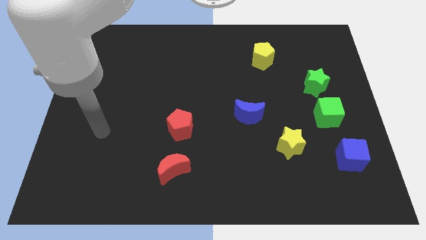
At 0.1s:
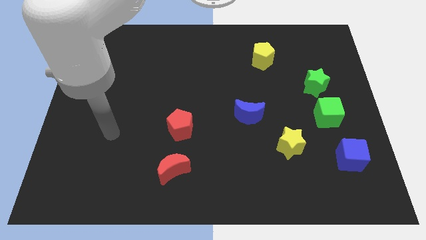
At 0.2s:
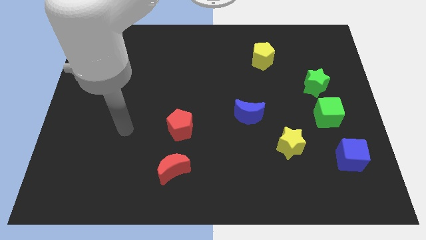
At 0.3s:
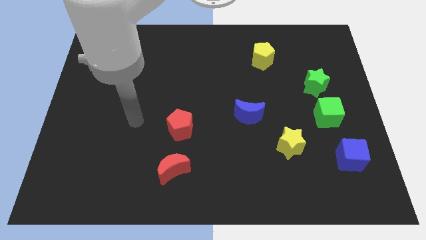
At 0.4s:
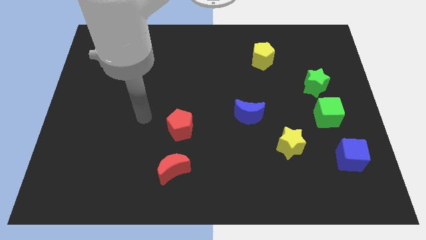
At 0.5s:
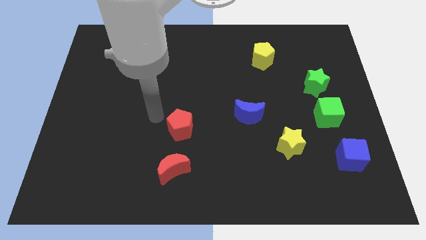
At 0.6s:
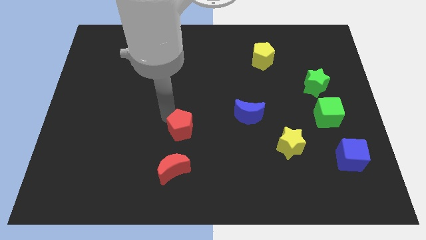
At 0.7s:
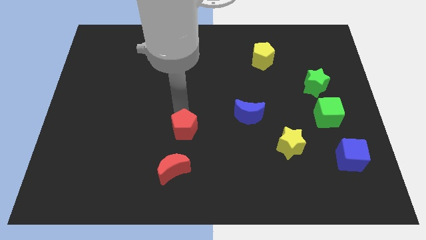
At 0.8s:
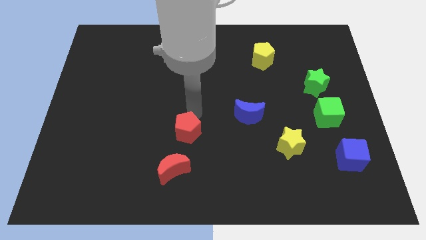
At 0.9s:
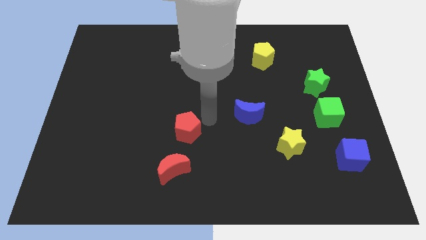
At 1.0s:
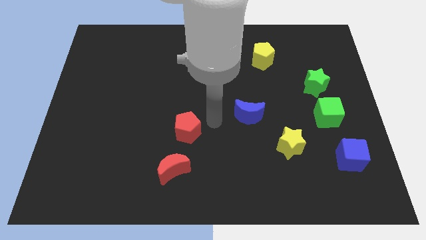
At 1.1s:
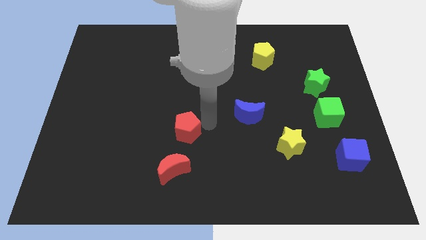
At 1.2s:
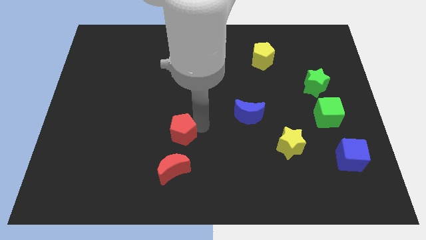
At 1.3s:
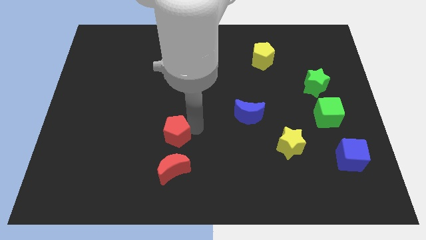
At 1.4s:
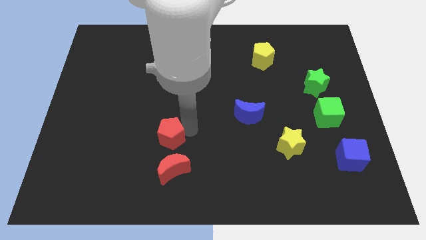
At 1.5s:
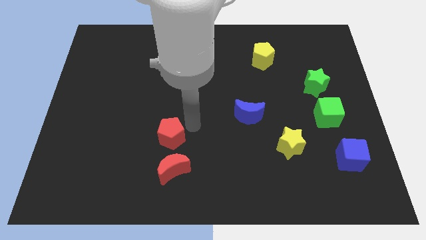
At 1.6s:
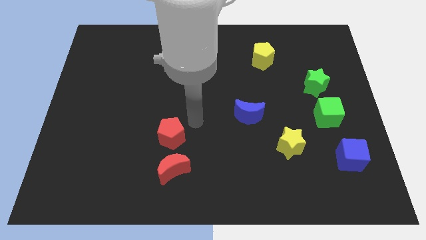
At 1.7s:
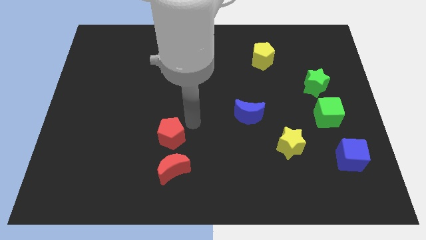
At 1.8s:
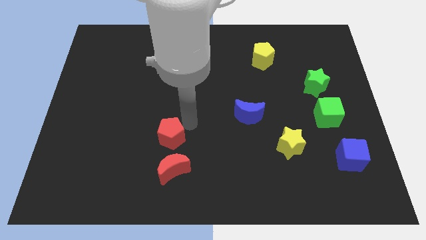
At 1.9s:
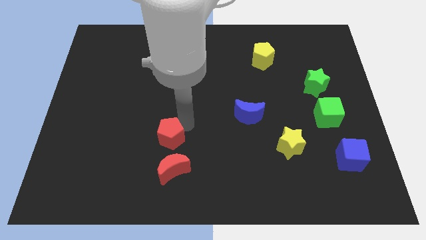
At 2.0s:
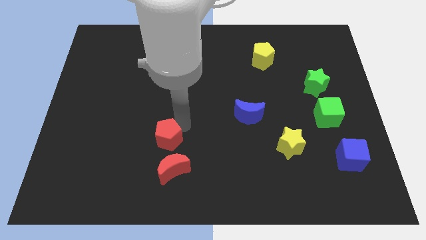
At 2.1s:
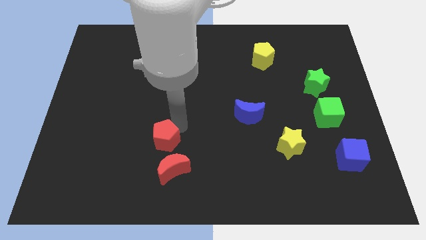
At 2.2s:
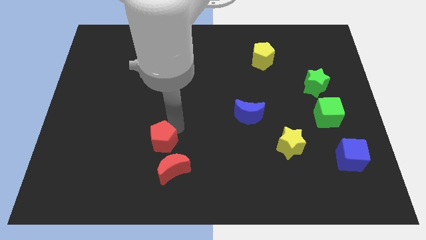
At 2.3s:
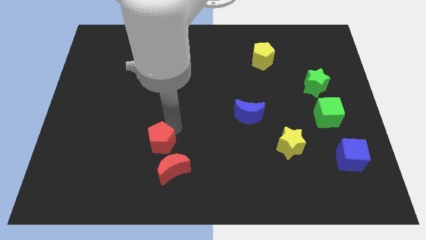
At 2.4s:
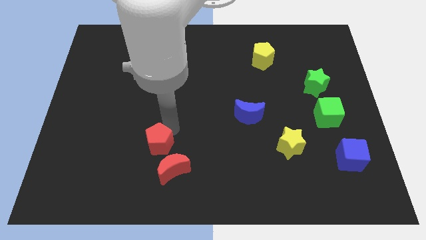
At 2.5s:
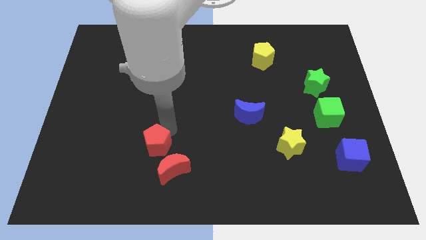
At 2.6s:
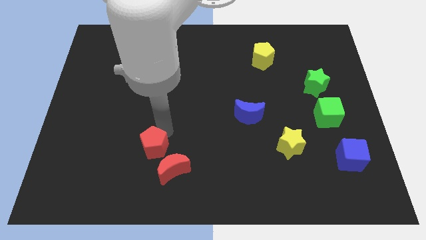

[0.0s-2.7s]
slightly slide the red pentagon downwards and to the left diagonally

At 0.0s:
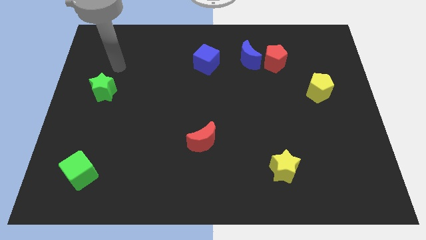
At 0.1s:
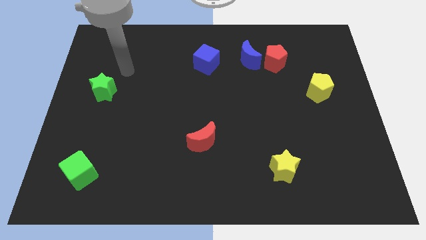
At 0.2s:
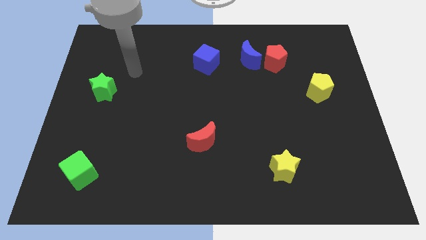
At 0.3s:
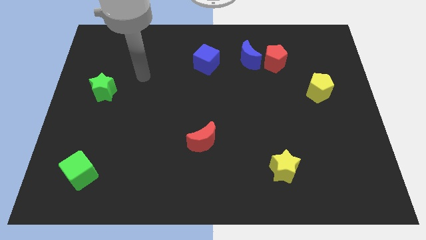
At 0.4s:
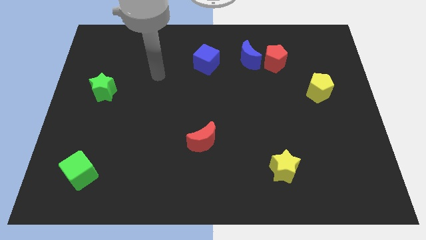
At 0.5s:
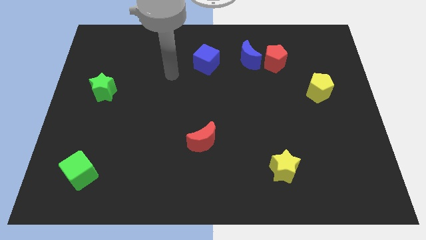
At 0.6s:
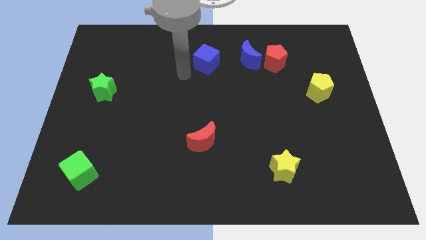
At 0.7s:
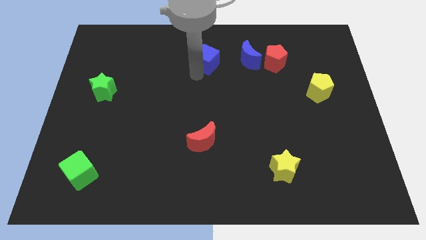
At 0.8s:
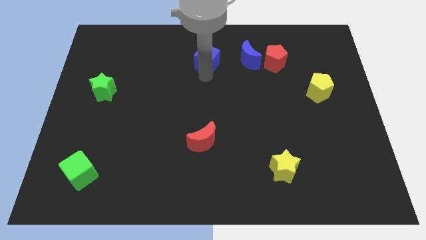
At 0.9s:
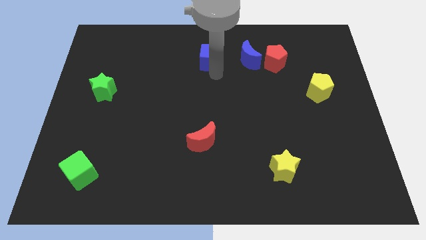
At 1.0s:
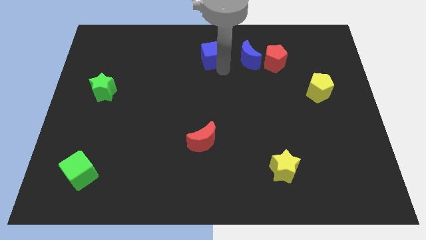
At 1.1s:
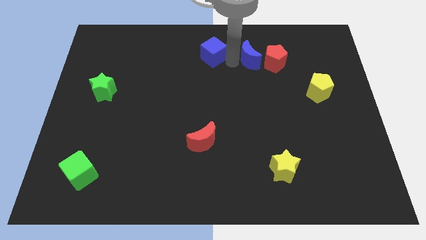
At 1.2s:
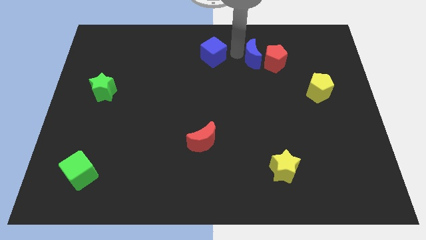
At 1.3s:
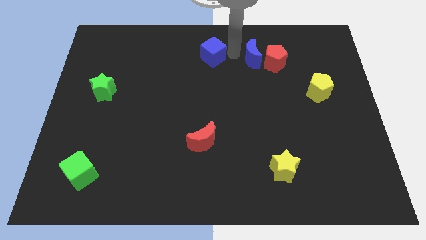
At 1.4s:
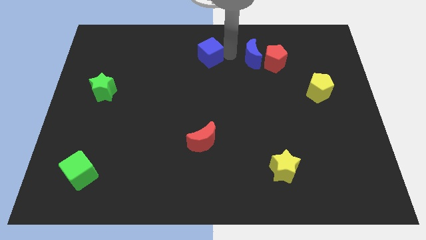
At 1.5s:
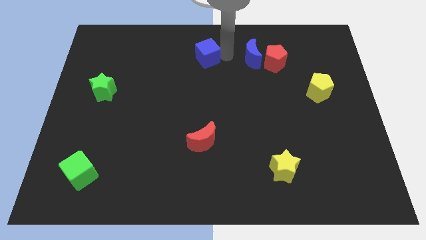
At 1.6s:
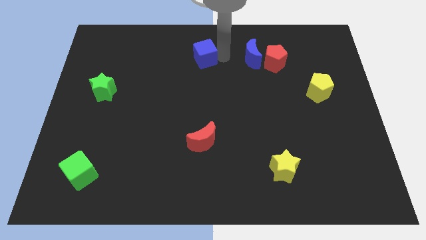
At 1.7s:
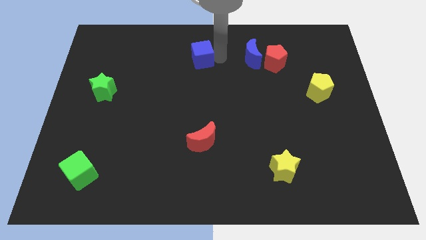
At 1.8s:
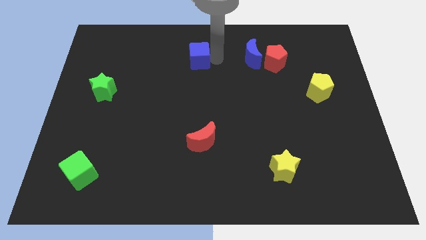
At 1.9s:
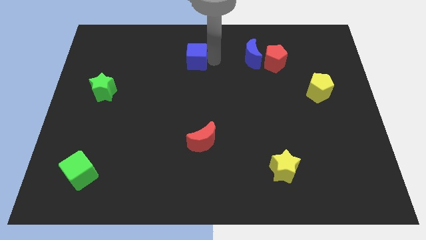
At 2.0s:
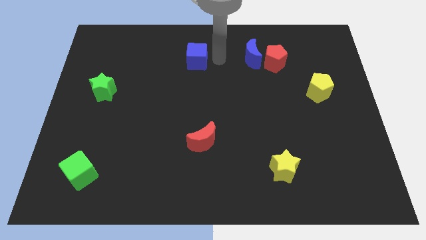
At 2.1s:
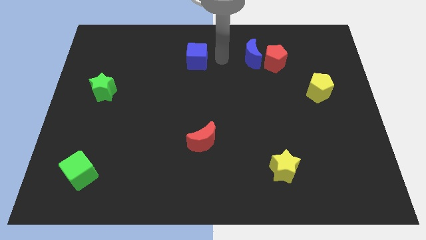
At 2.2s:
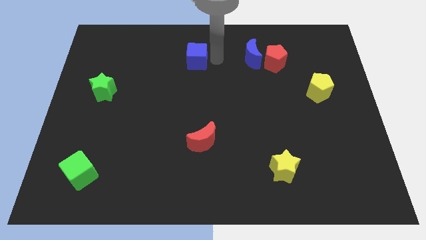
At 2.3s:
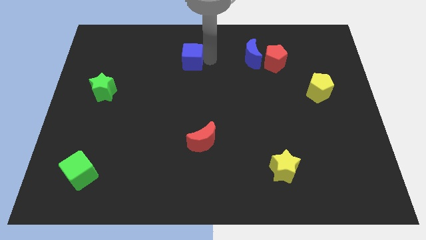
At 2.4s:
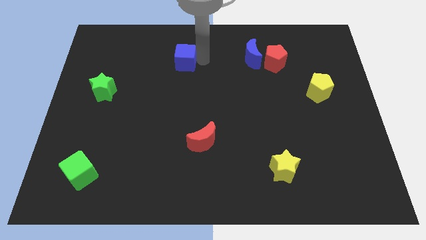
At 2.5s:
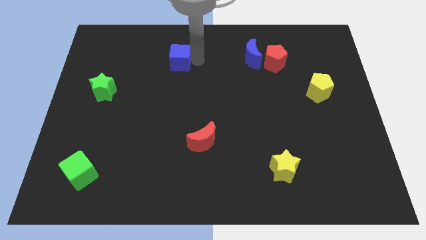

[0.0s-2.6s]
push the blue cube to the left a bit

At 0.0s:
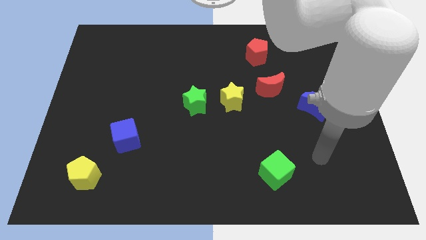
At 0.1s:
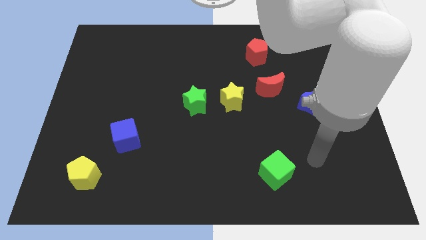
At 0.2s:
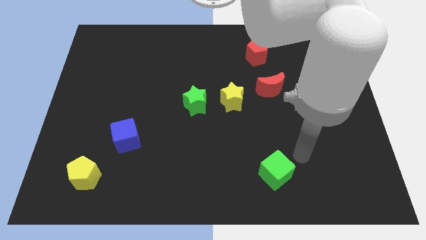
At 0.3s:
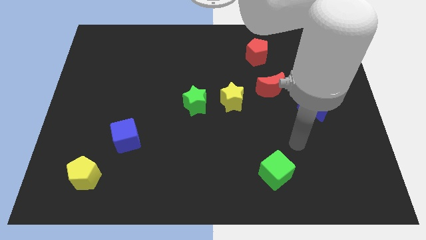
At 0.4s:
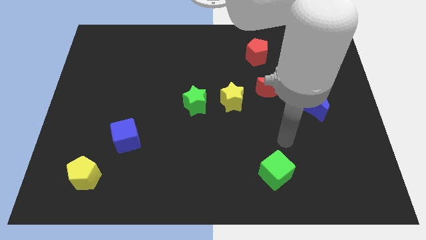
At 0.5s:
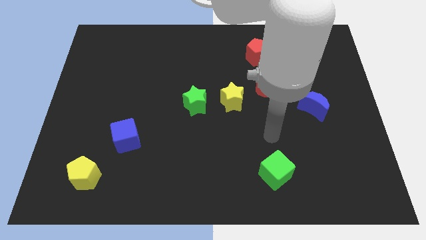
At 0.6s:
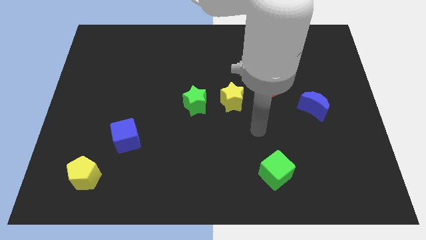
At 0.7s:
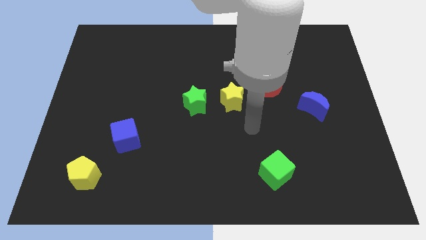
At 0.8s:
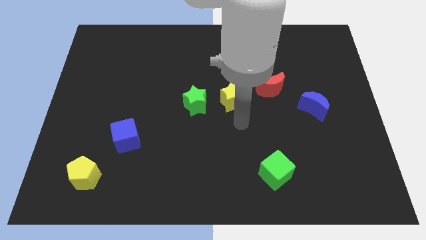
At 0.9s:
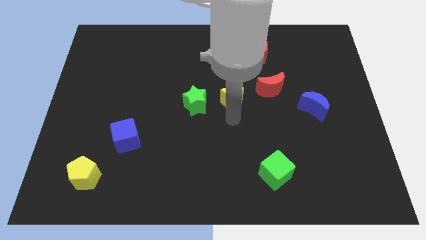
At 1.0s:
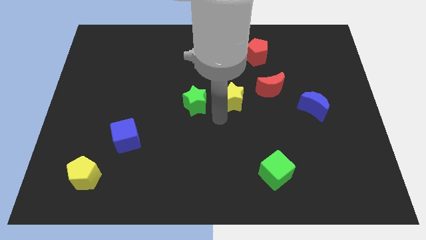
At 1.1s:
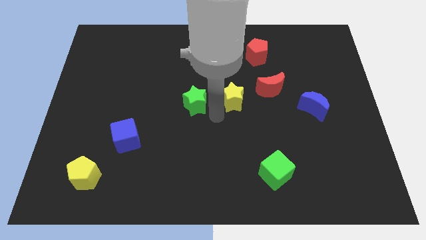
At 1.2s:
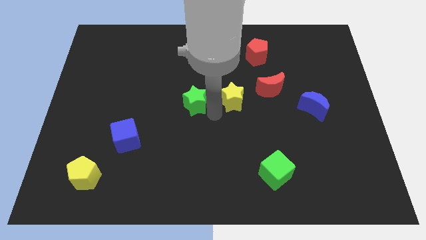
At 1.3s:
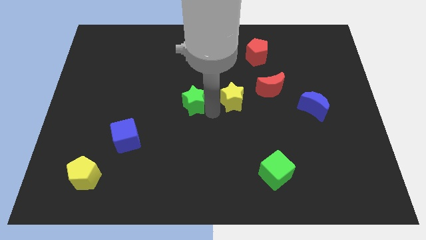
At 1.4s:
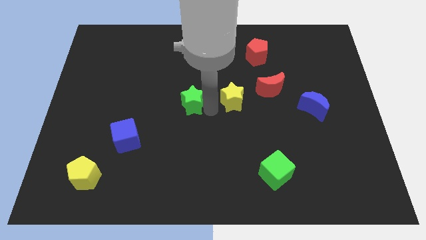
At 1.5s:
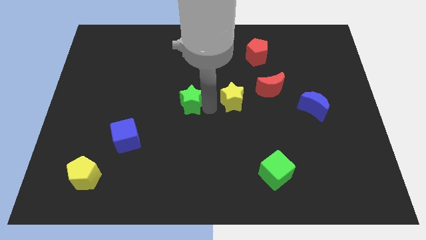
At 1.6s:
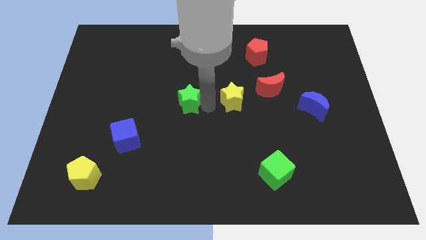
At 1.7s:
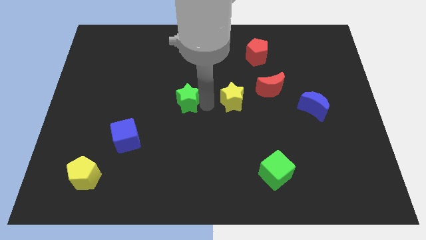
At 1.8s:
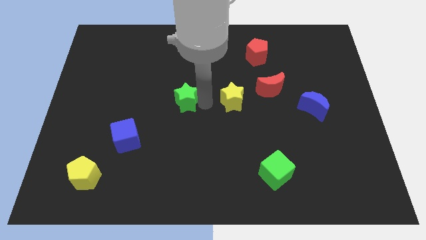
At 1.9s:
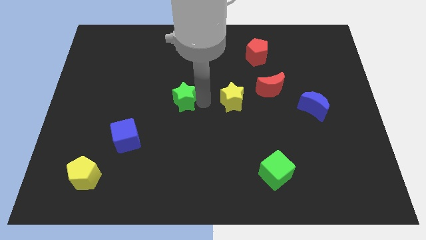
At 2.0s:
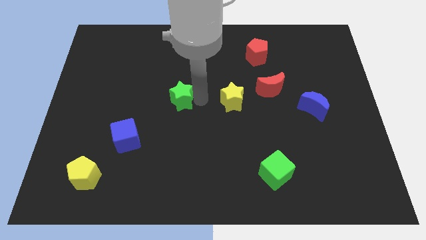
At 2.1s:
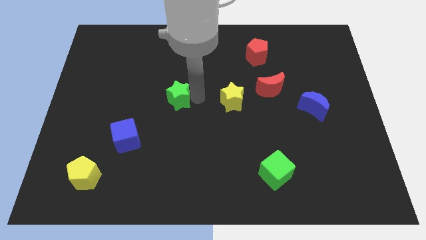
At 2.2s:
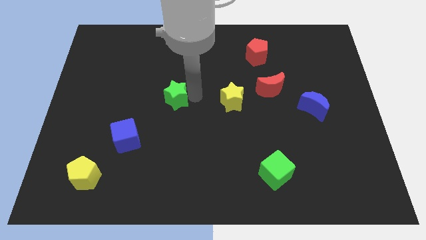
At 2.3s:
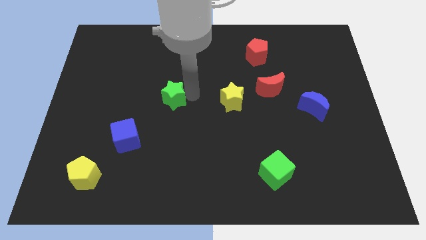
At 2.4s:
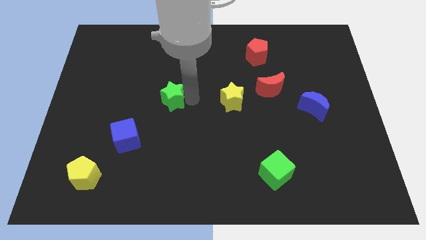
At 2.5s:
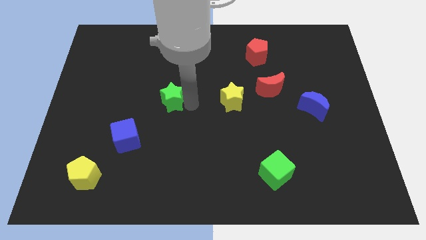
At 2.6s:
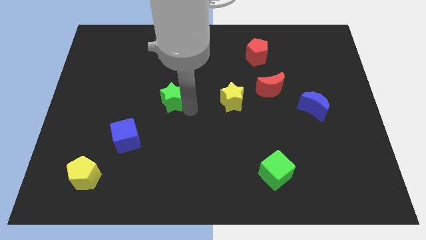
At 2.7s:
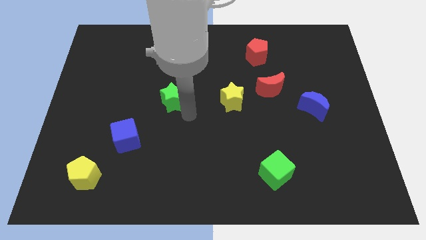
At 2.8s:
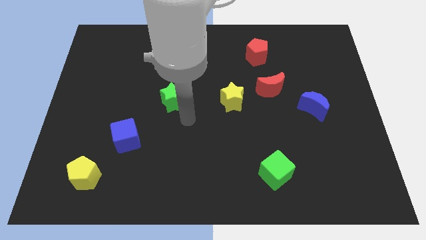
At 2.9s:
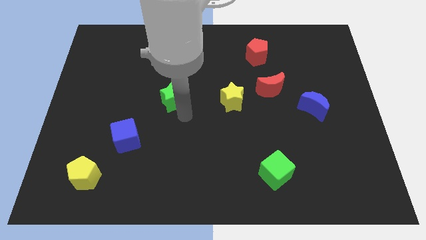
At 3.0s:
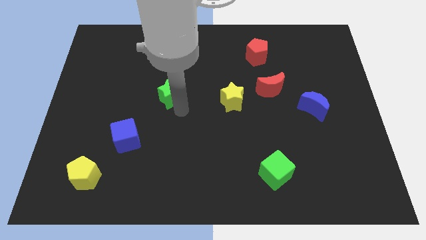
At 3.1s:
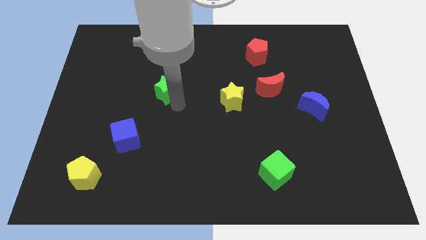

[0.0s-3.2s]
slide the green star a little upwards and then to the left
